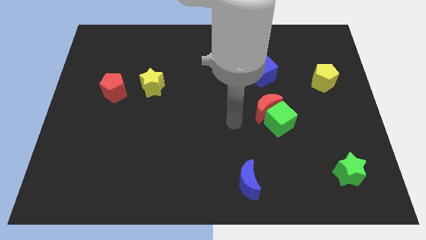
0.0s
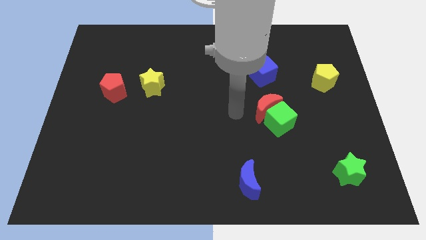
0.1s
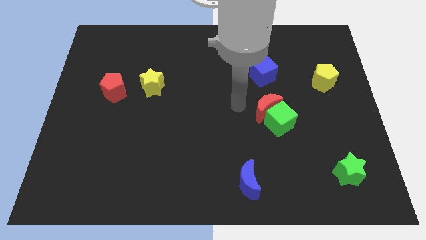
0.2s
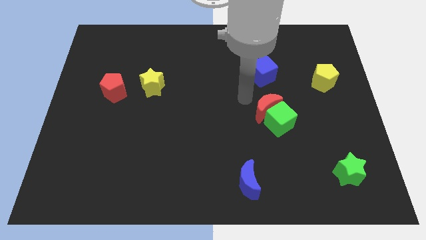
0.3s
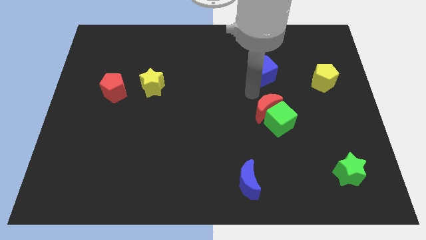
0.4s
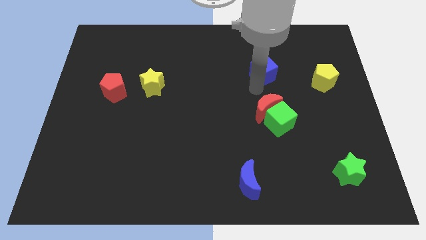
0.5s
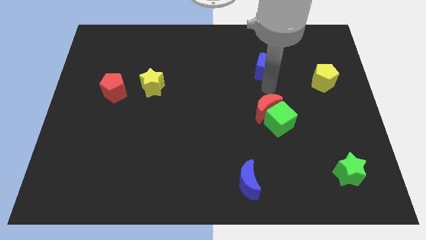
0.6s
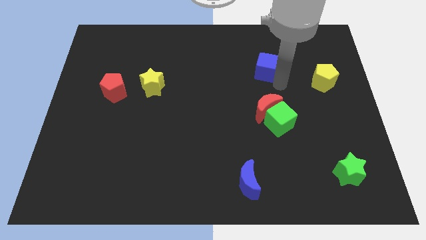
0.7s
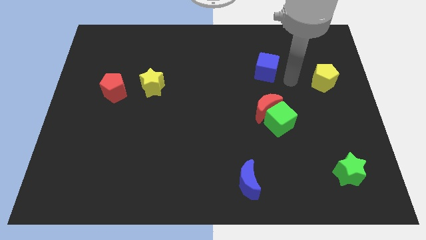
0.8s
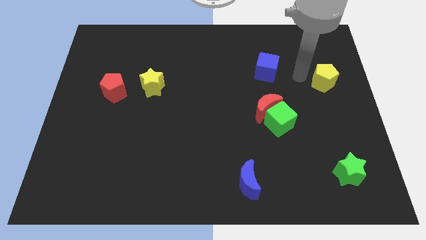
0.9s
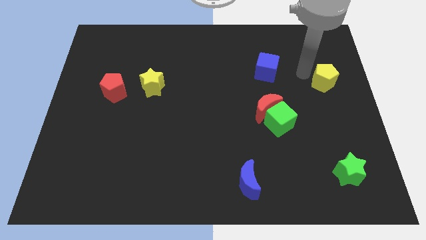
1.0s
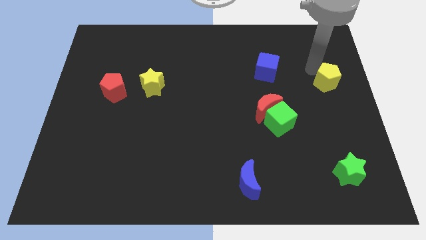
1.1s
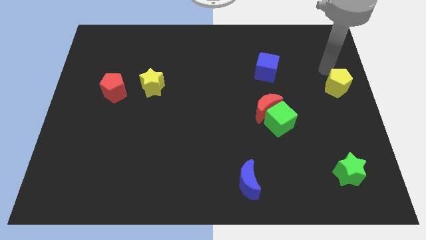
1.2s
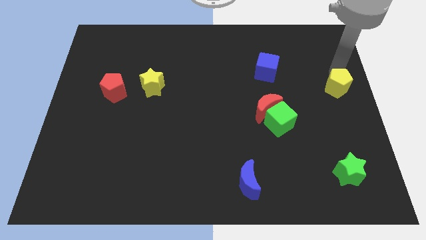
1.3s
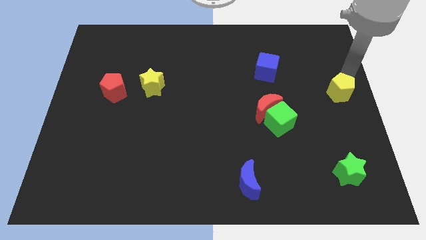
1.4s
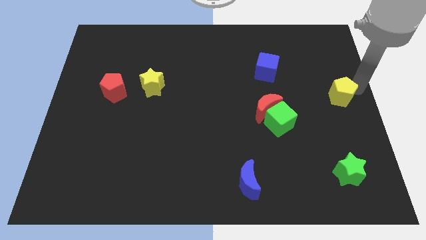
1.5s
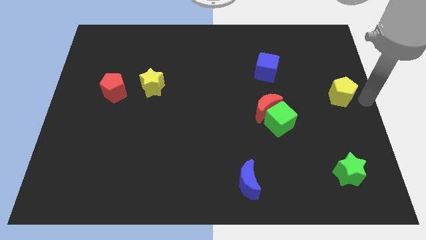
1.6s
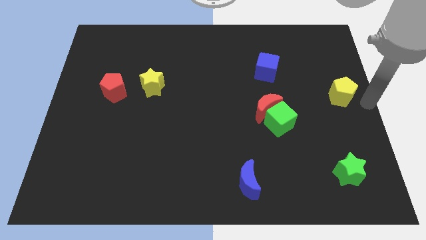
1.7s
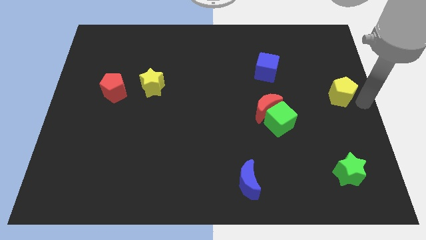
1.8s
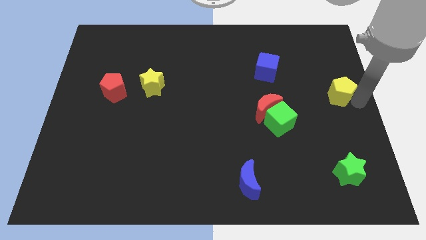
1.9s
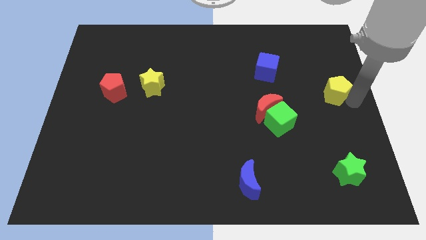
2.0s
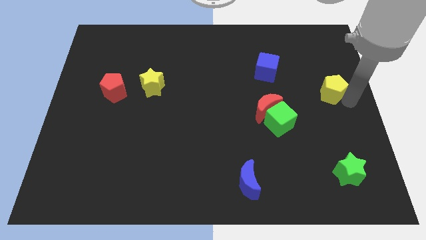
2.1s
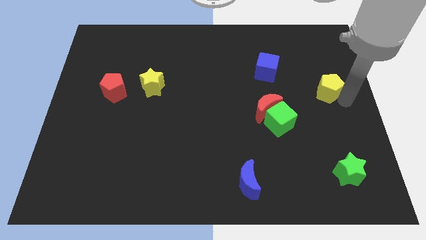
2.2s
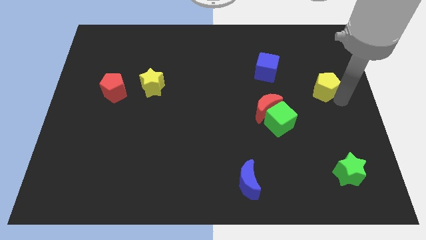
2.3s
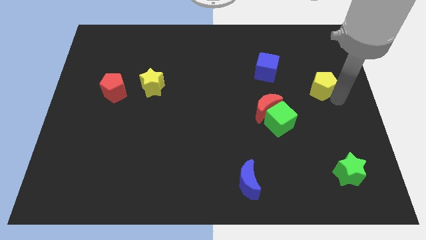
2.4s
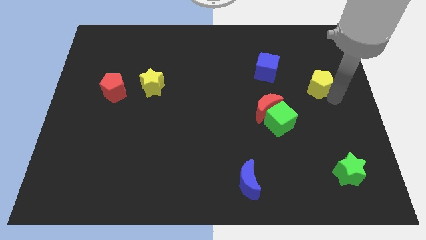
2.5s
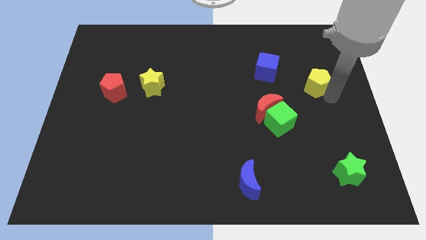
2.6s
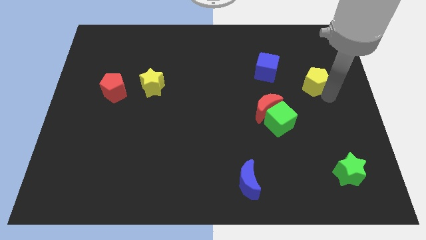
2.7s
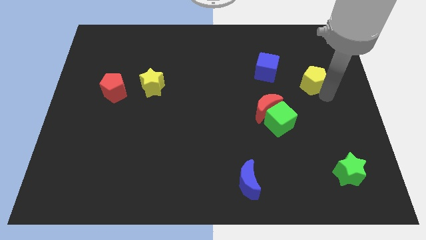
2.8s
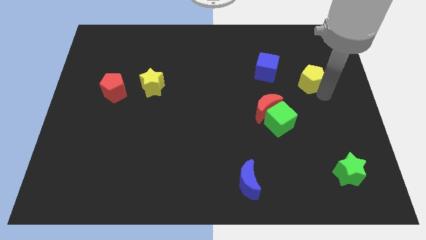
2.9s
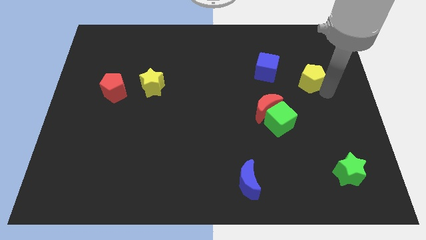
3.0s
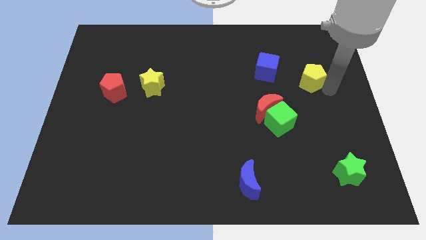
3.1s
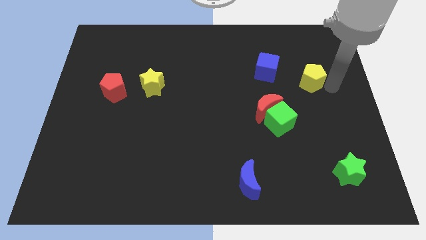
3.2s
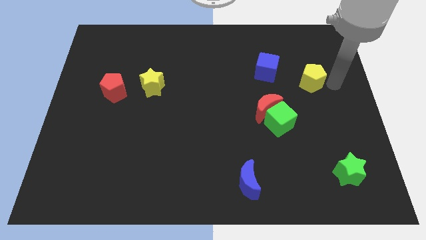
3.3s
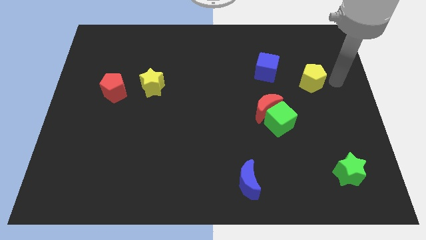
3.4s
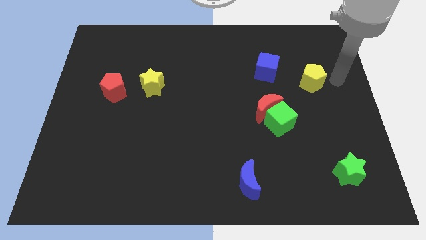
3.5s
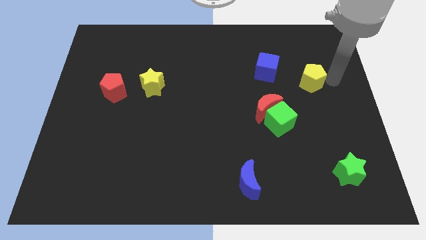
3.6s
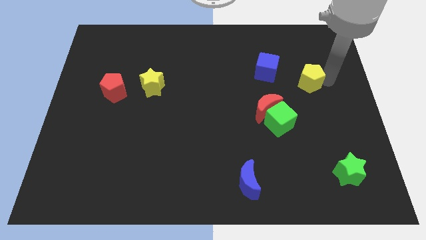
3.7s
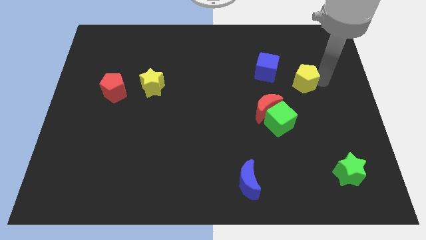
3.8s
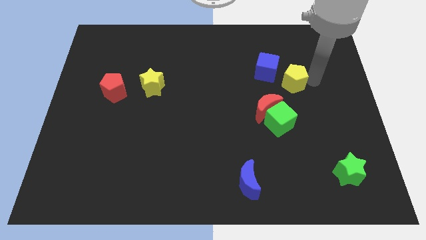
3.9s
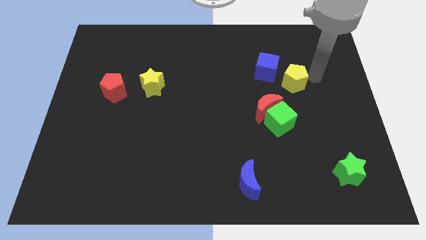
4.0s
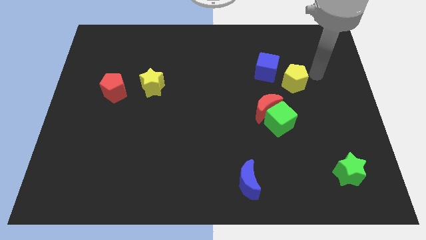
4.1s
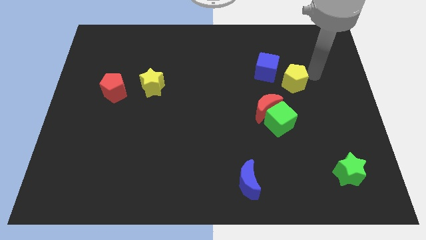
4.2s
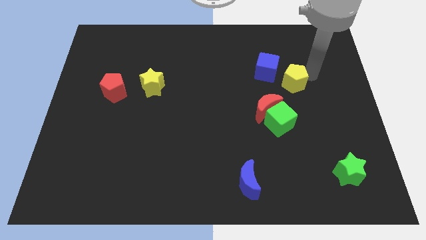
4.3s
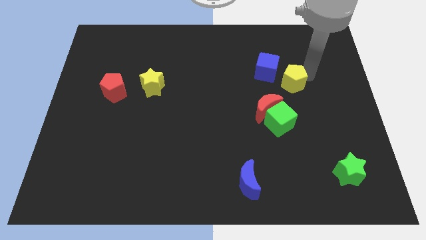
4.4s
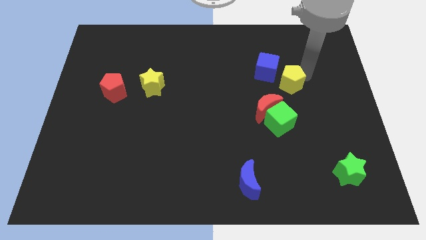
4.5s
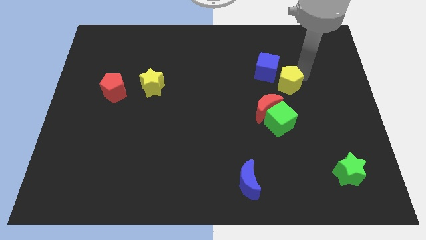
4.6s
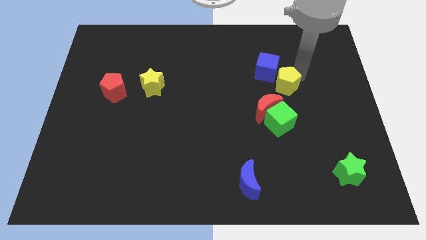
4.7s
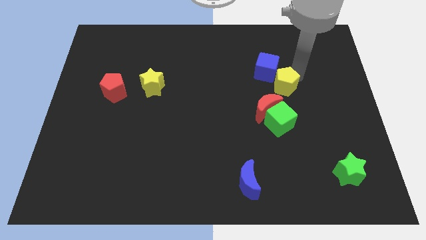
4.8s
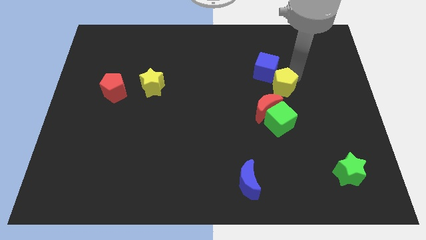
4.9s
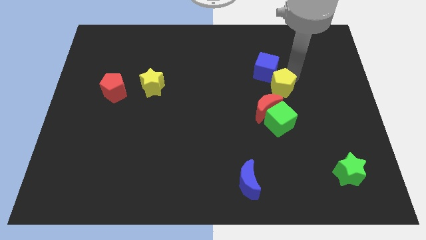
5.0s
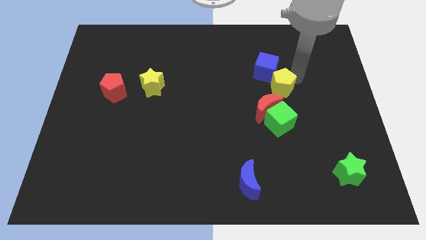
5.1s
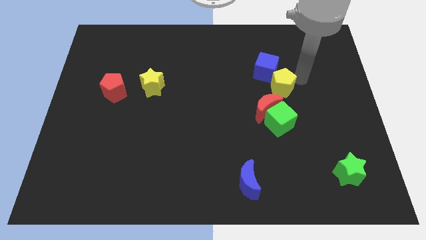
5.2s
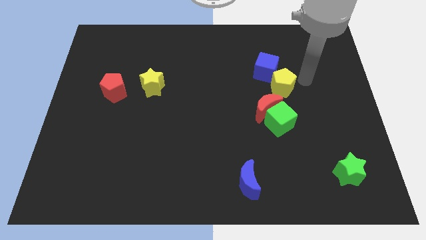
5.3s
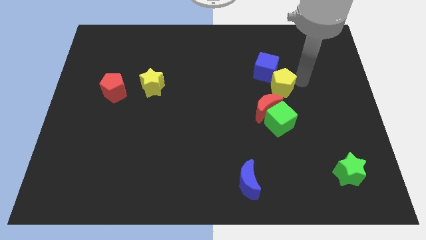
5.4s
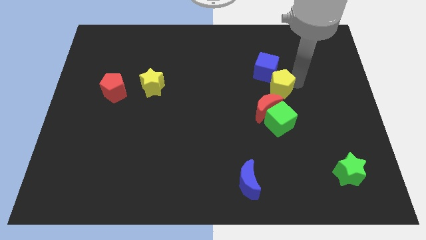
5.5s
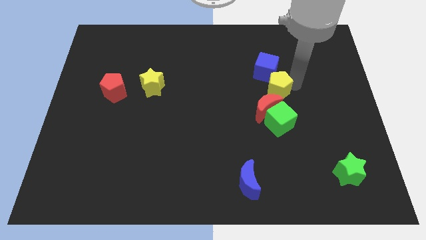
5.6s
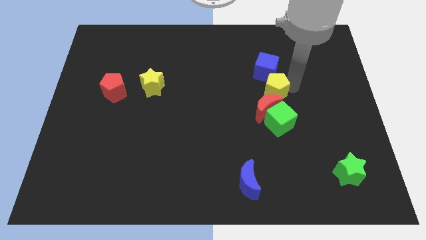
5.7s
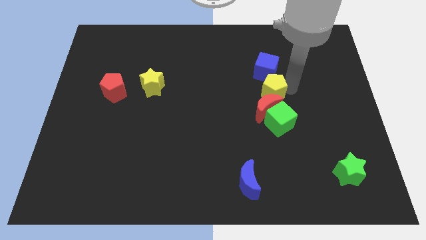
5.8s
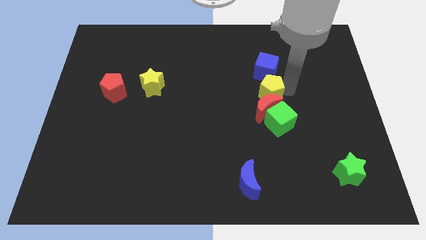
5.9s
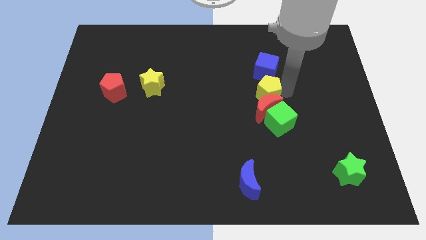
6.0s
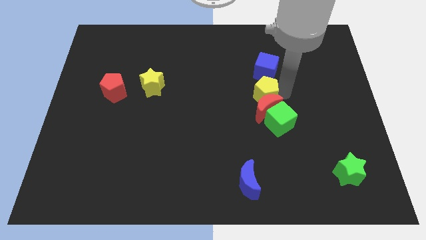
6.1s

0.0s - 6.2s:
slide the yellow pentagon diagonally down and to the left of the blue cube

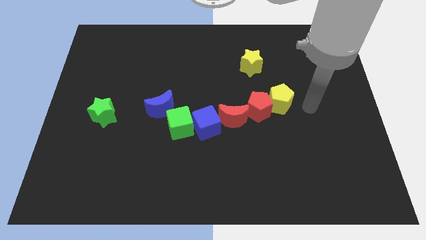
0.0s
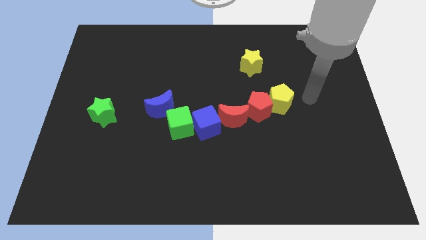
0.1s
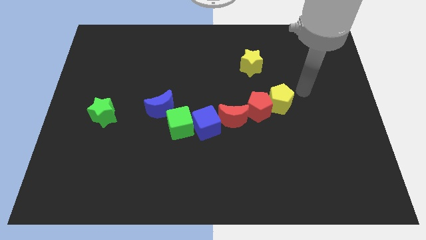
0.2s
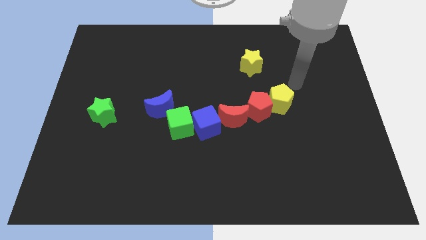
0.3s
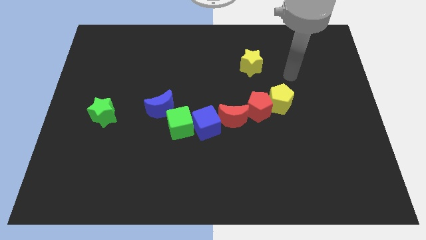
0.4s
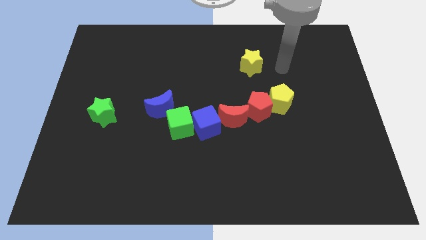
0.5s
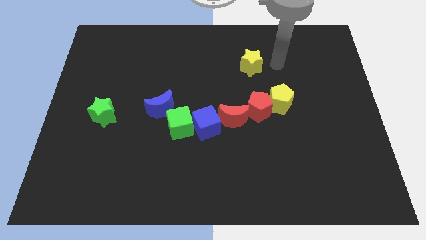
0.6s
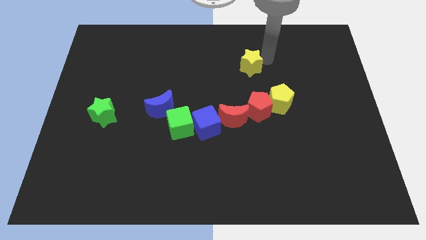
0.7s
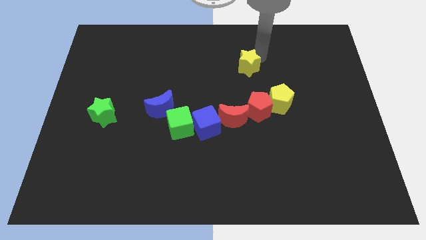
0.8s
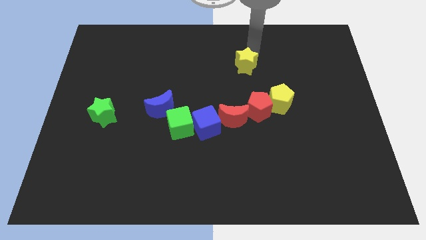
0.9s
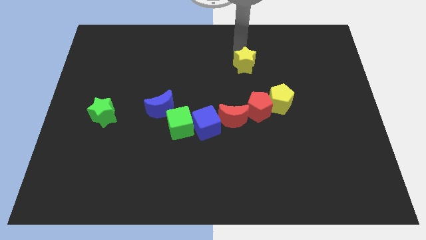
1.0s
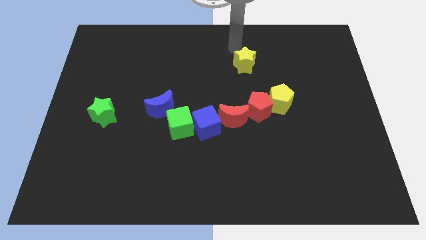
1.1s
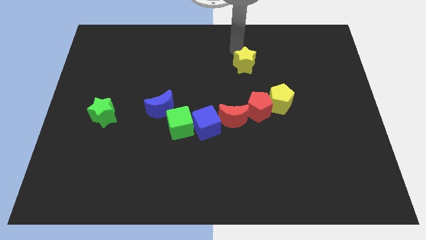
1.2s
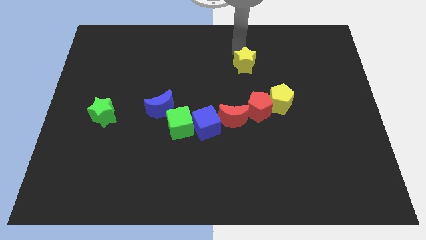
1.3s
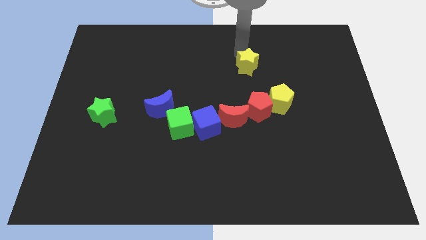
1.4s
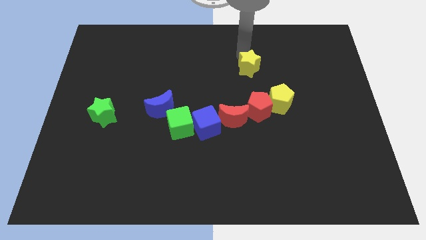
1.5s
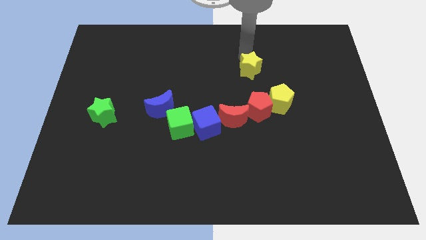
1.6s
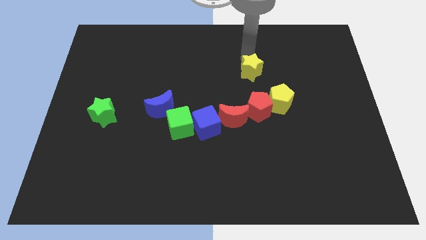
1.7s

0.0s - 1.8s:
move the yellow star diagonally up and to the left of the yellow pentagon
